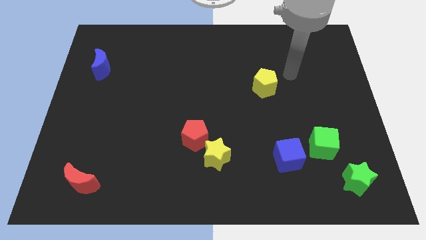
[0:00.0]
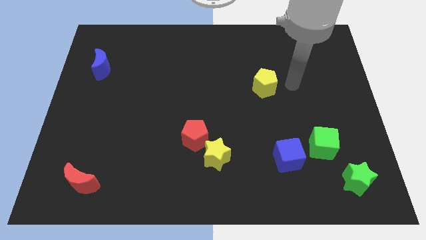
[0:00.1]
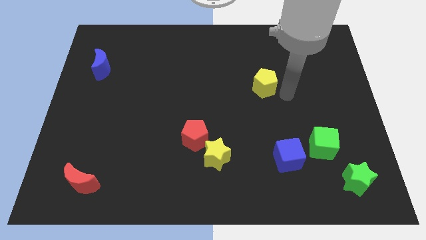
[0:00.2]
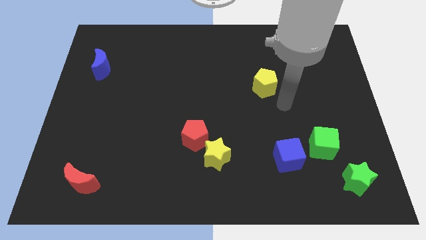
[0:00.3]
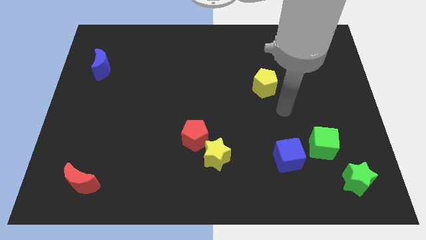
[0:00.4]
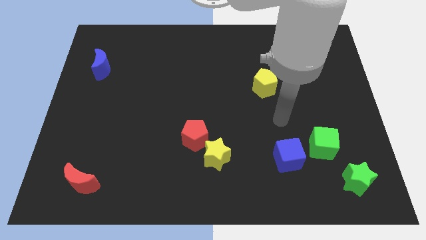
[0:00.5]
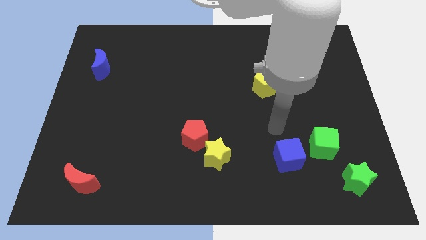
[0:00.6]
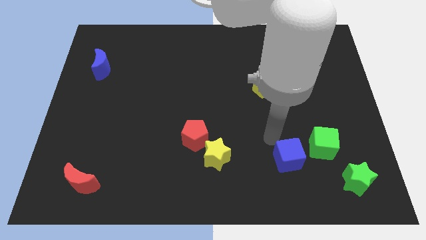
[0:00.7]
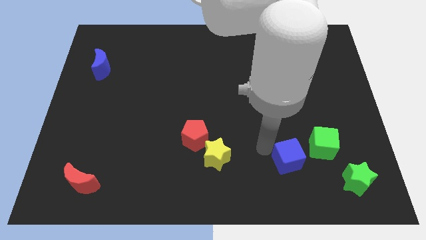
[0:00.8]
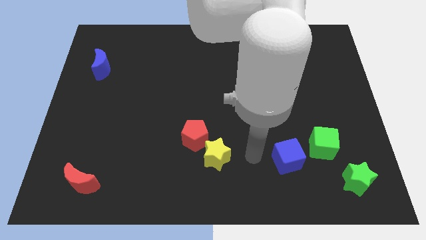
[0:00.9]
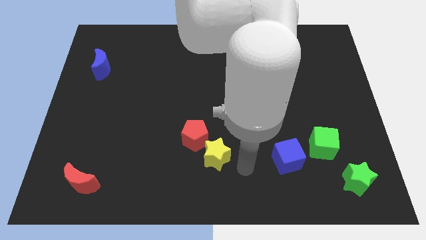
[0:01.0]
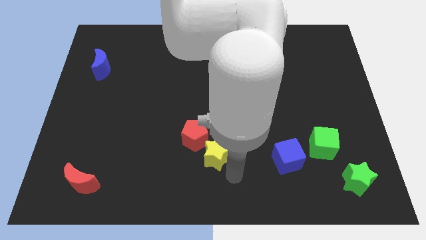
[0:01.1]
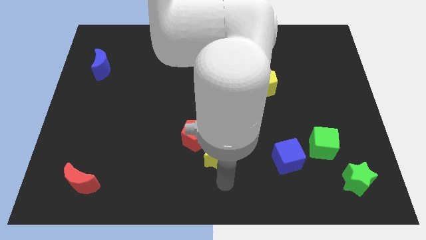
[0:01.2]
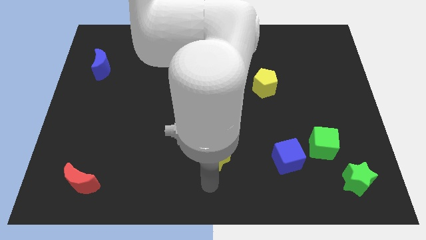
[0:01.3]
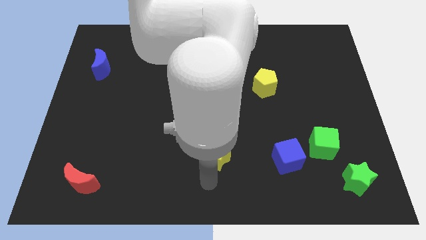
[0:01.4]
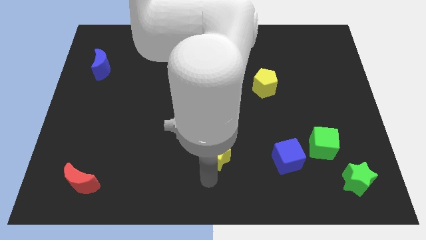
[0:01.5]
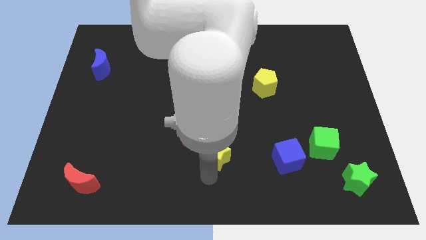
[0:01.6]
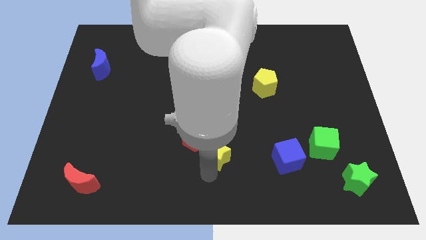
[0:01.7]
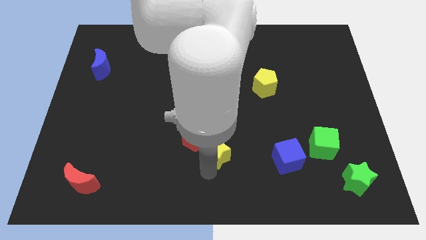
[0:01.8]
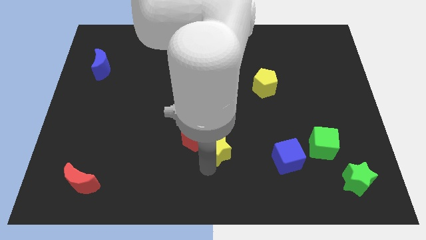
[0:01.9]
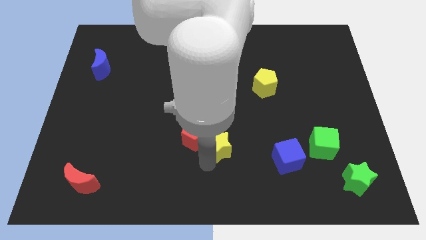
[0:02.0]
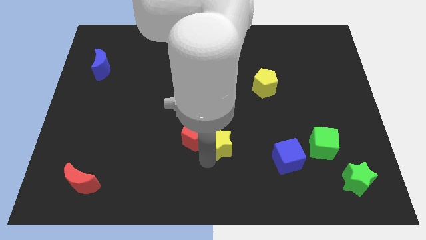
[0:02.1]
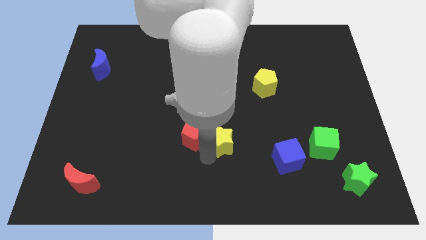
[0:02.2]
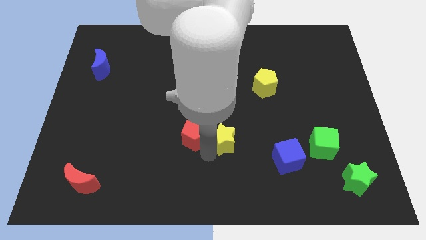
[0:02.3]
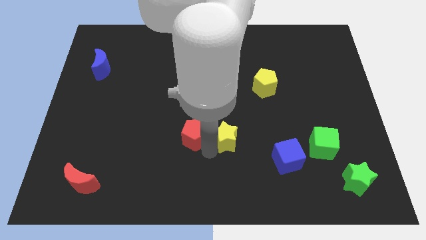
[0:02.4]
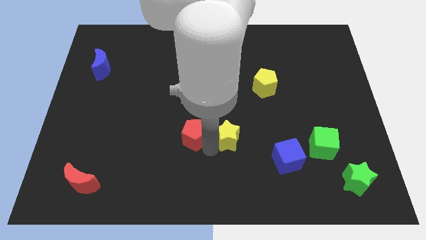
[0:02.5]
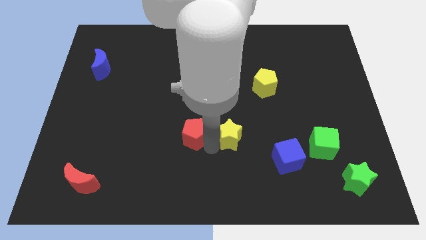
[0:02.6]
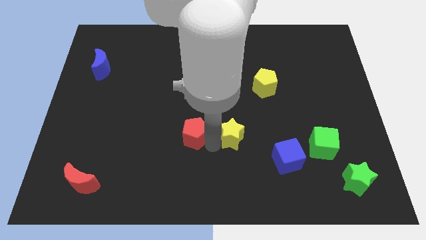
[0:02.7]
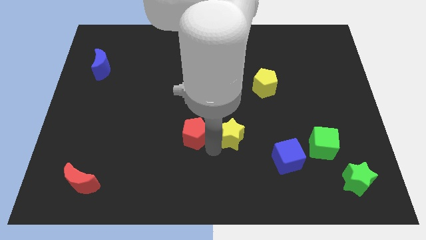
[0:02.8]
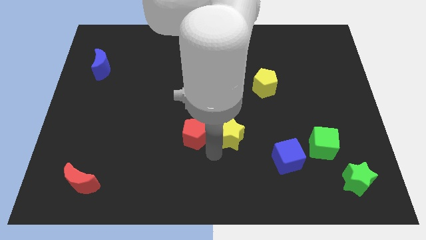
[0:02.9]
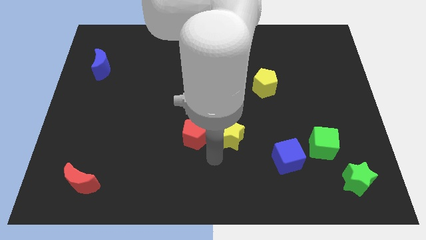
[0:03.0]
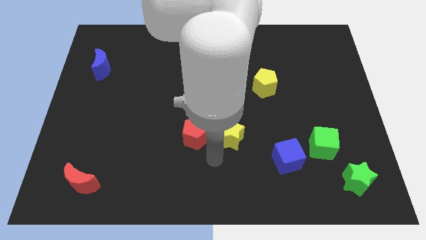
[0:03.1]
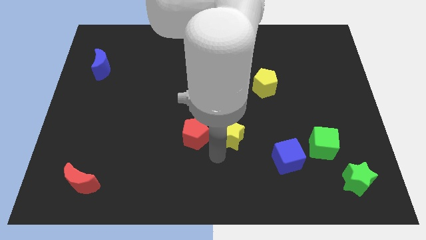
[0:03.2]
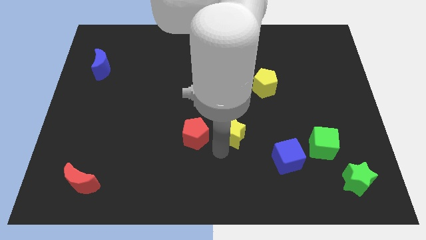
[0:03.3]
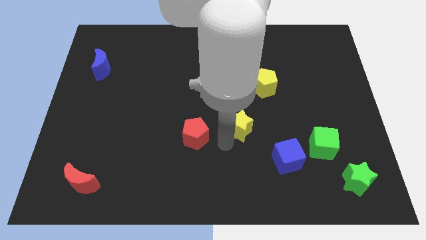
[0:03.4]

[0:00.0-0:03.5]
move the yellow star somewhat up and to the right

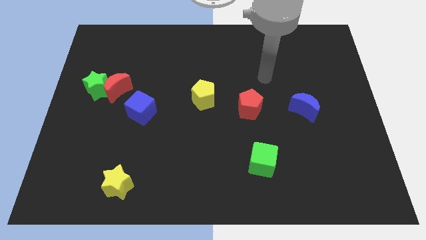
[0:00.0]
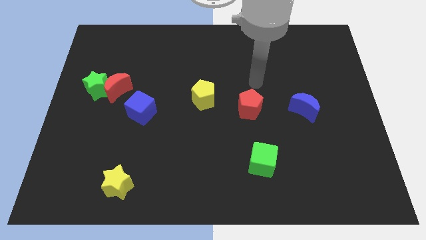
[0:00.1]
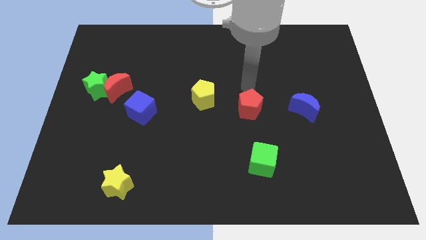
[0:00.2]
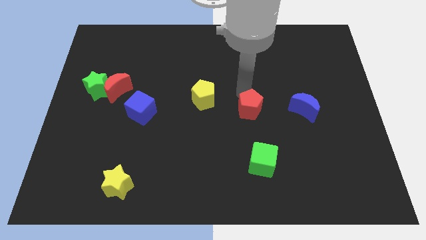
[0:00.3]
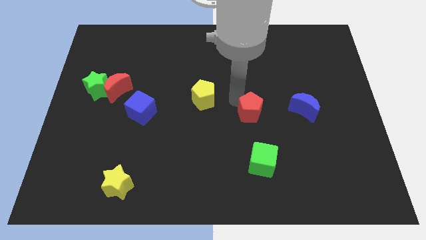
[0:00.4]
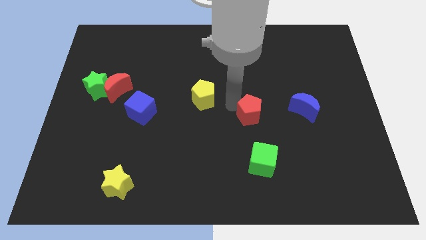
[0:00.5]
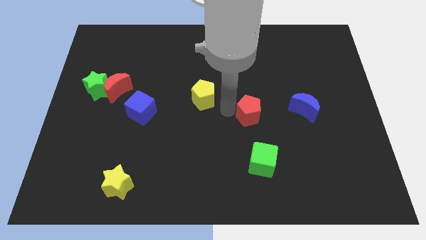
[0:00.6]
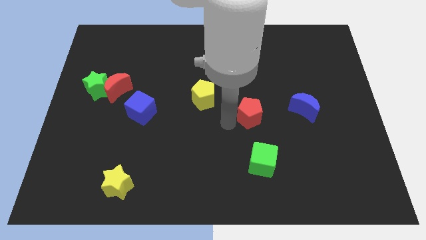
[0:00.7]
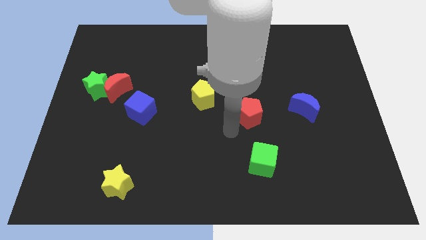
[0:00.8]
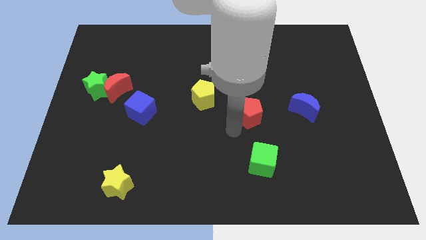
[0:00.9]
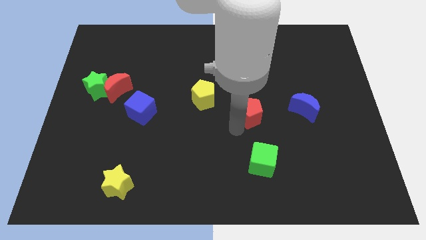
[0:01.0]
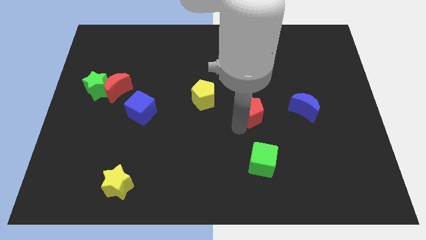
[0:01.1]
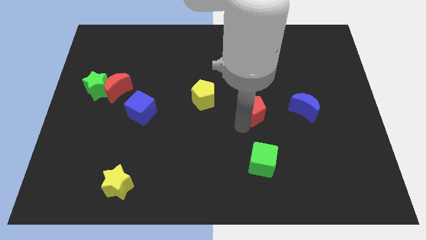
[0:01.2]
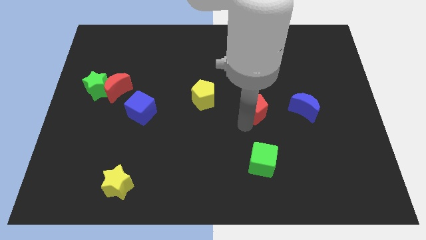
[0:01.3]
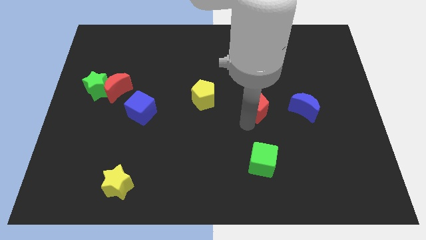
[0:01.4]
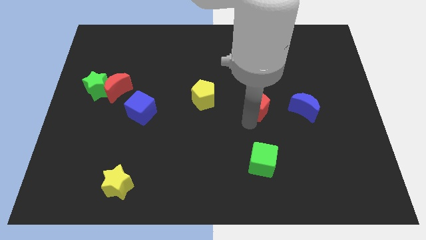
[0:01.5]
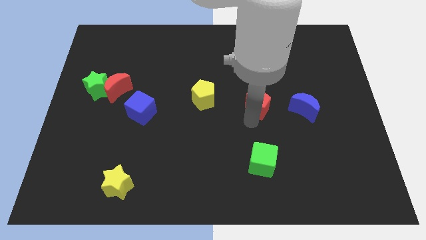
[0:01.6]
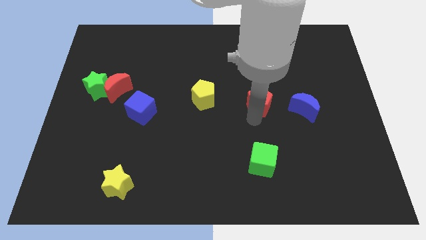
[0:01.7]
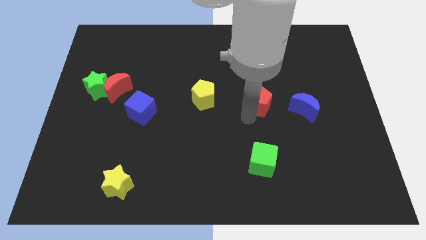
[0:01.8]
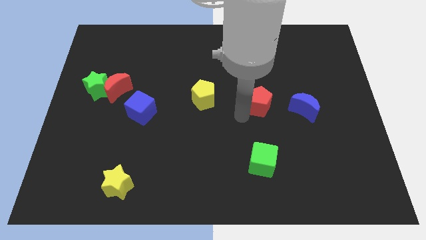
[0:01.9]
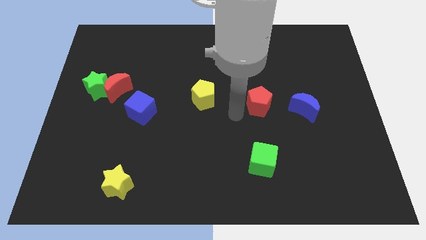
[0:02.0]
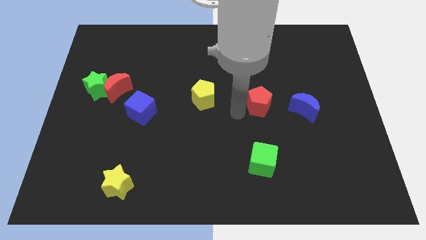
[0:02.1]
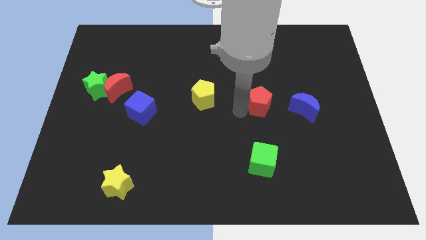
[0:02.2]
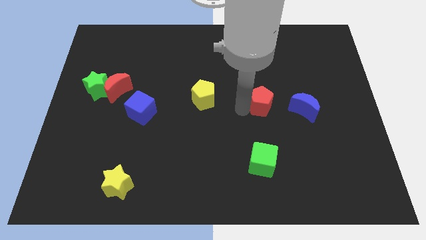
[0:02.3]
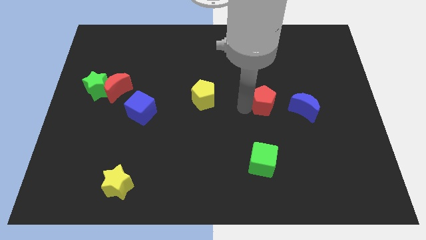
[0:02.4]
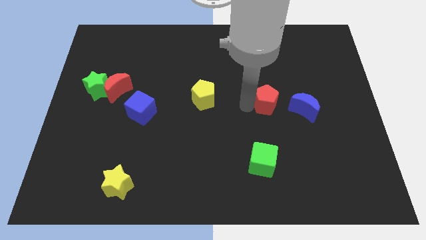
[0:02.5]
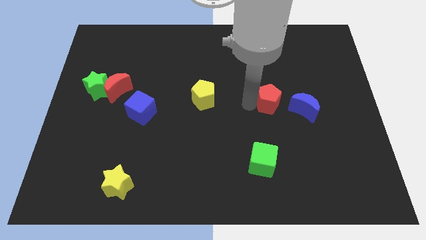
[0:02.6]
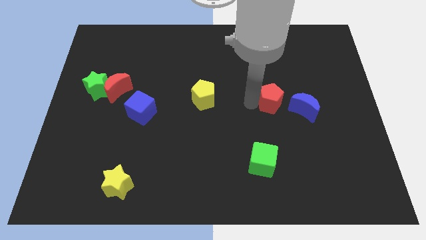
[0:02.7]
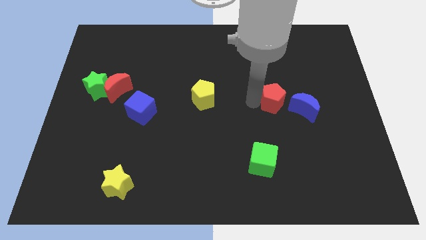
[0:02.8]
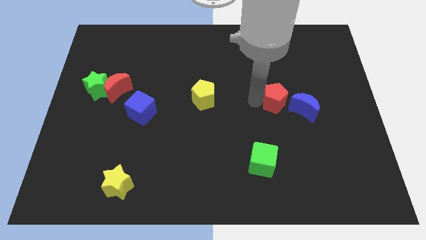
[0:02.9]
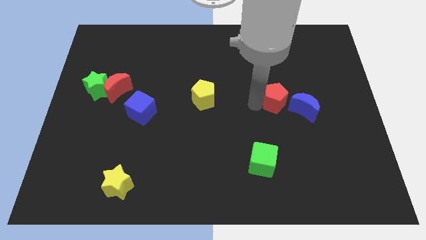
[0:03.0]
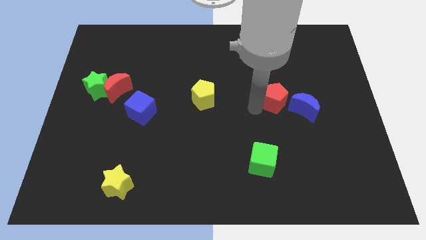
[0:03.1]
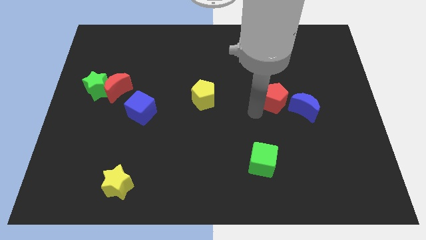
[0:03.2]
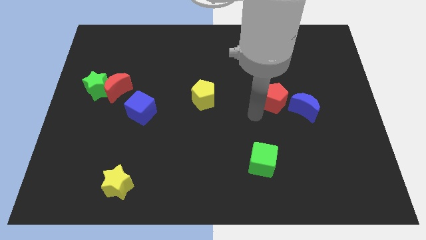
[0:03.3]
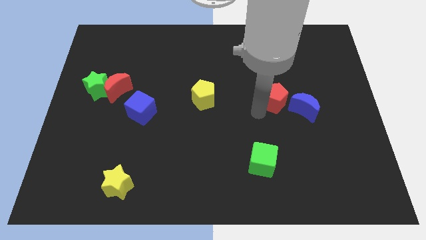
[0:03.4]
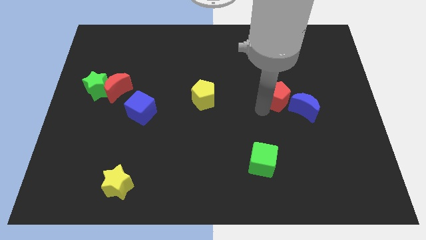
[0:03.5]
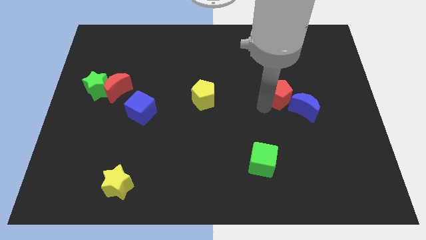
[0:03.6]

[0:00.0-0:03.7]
slightly push the red pentagon to the right

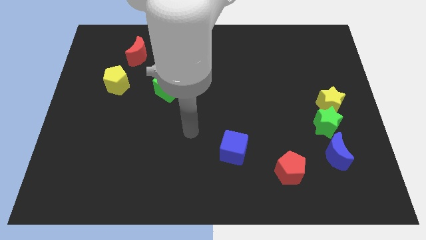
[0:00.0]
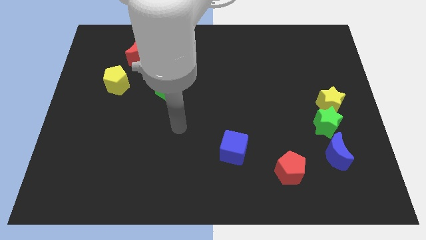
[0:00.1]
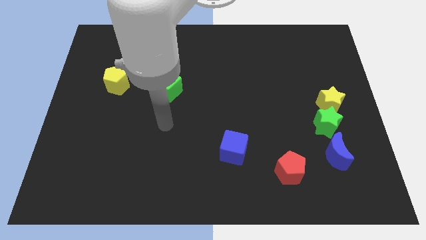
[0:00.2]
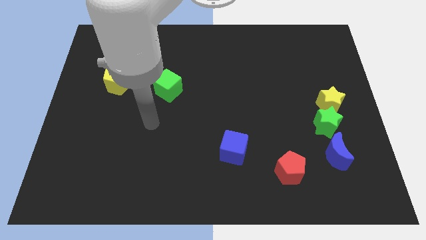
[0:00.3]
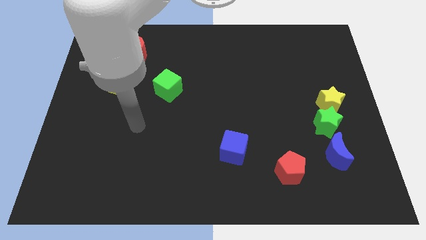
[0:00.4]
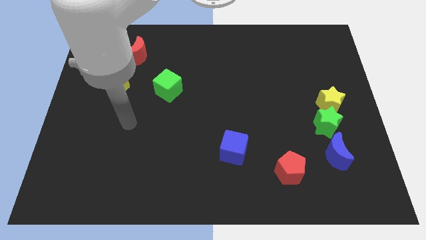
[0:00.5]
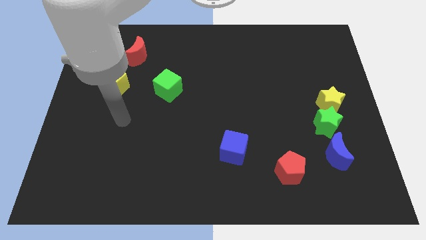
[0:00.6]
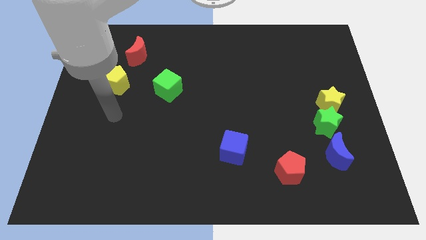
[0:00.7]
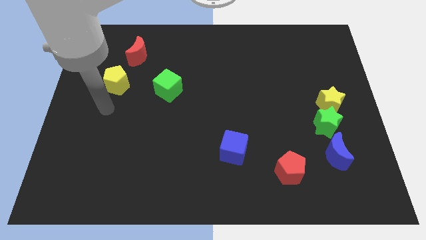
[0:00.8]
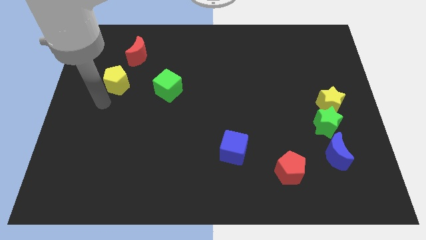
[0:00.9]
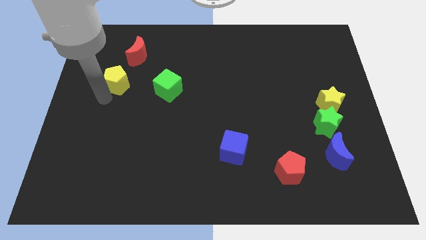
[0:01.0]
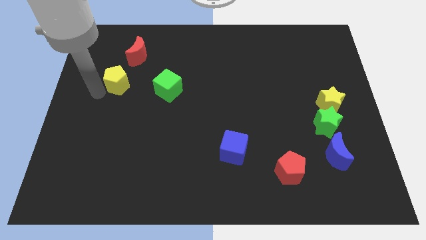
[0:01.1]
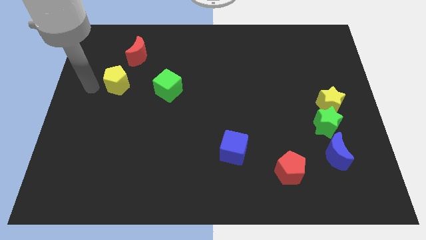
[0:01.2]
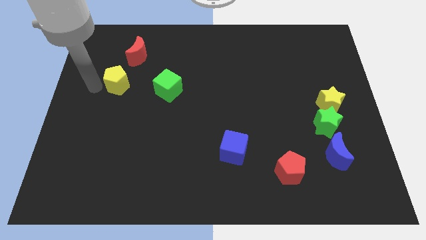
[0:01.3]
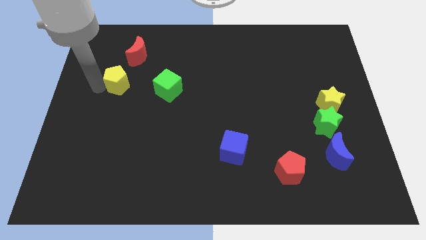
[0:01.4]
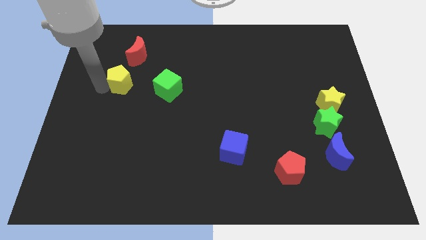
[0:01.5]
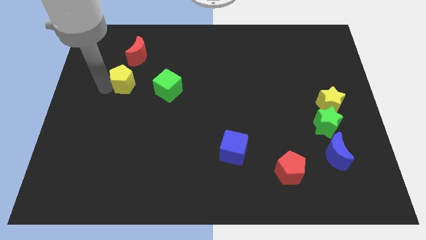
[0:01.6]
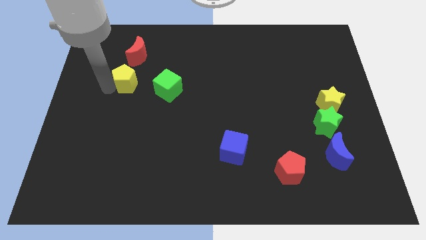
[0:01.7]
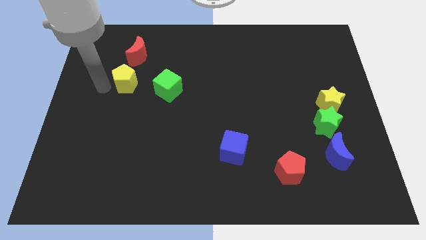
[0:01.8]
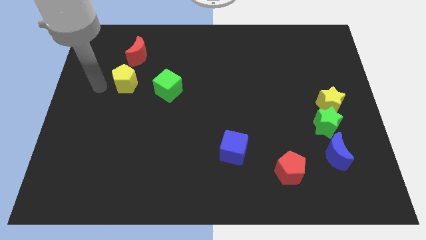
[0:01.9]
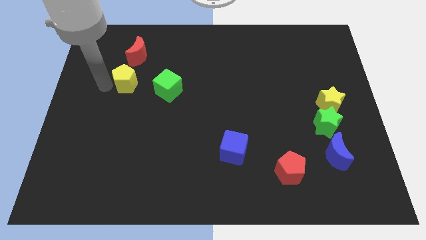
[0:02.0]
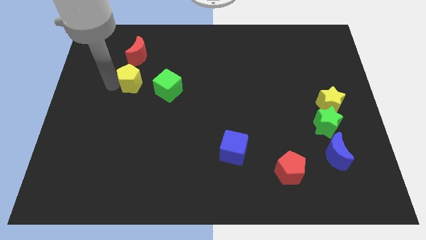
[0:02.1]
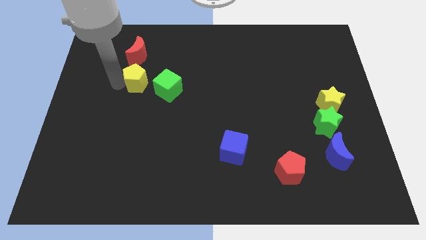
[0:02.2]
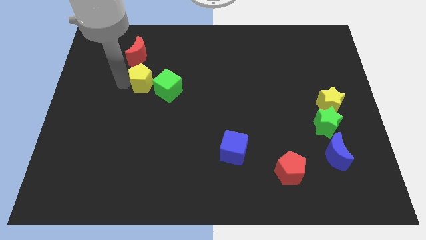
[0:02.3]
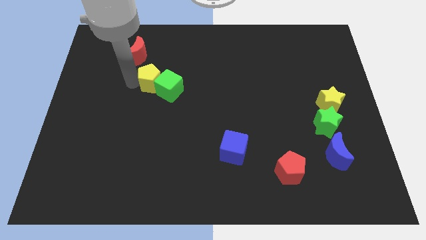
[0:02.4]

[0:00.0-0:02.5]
push the yellow pentagon right a bit
